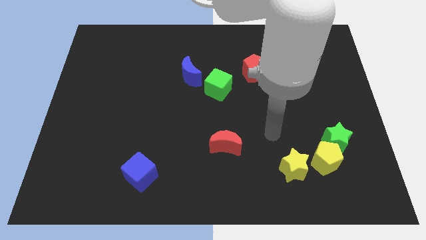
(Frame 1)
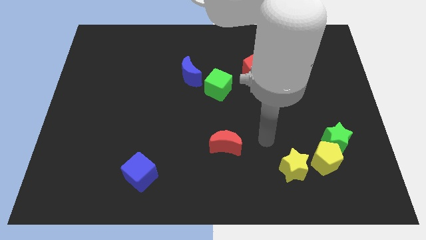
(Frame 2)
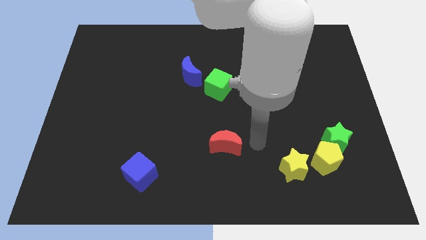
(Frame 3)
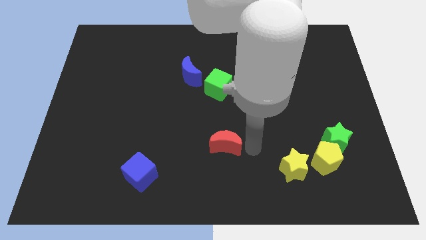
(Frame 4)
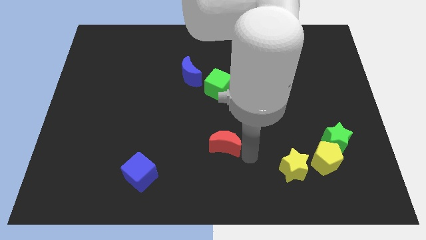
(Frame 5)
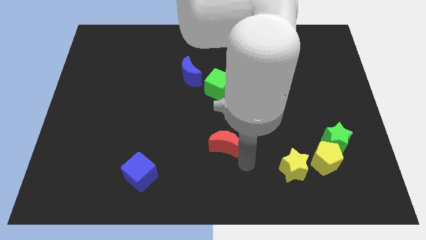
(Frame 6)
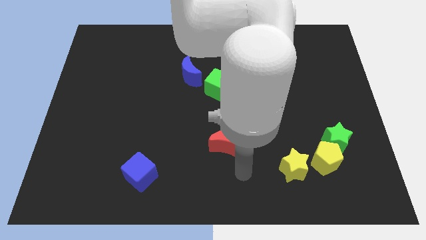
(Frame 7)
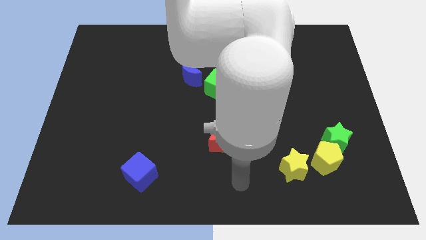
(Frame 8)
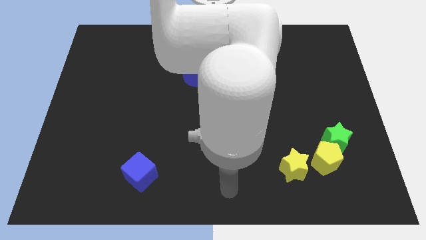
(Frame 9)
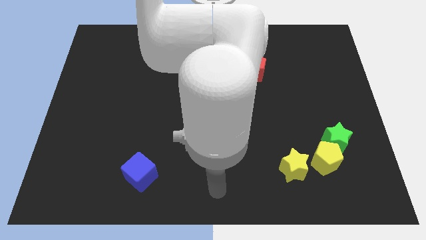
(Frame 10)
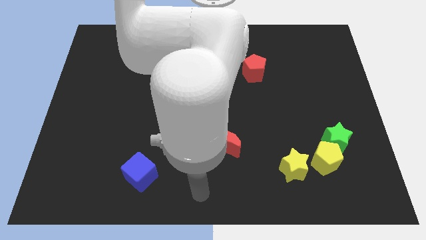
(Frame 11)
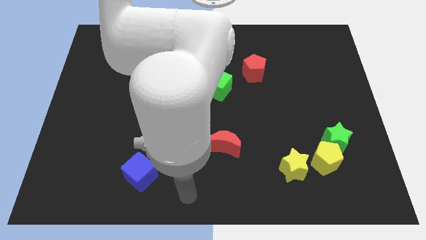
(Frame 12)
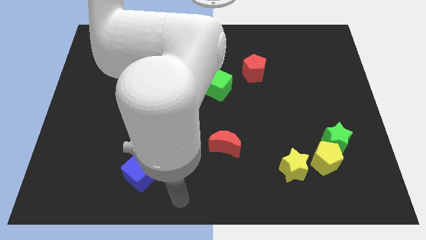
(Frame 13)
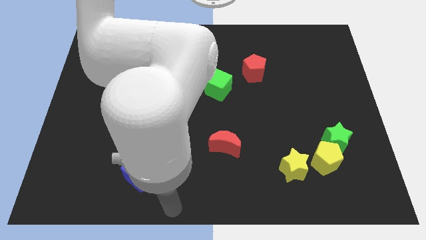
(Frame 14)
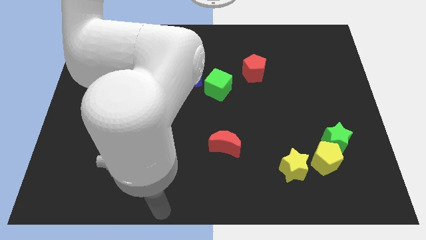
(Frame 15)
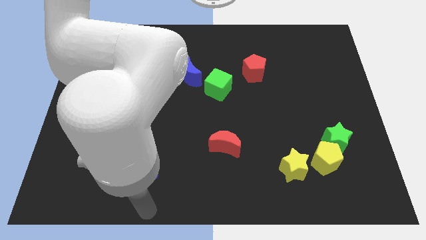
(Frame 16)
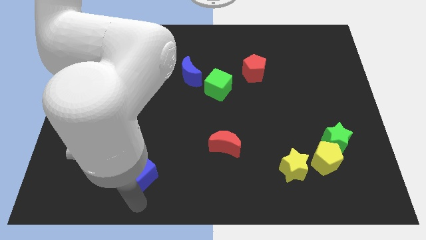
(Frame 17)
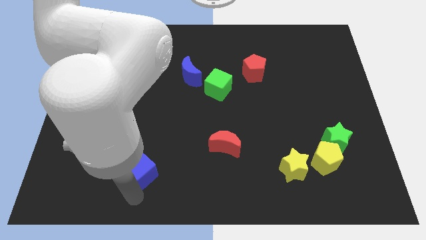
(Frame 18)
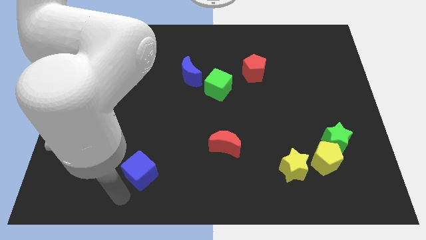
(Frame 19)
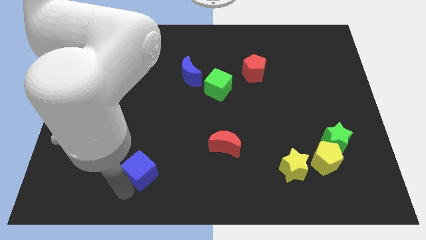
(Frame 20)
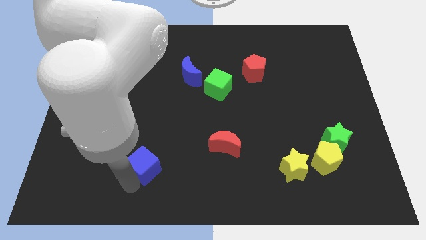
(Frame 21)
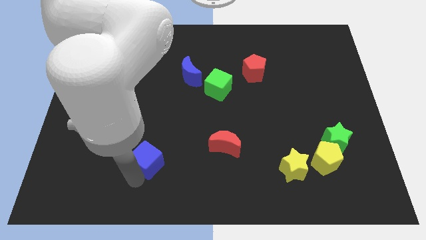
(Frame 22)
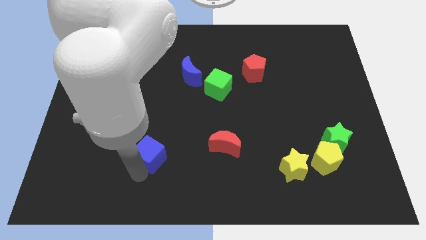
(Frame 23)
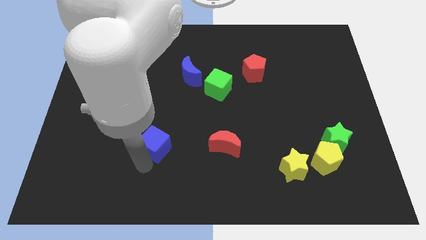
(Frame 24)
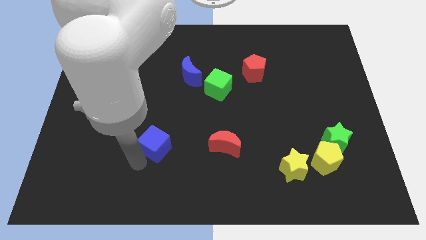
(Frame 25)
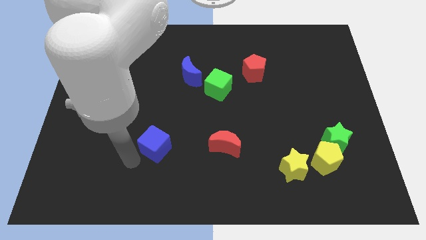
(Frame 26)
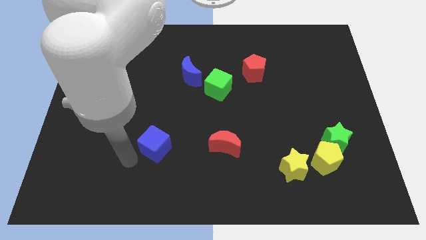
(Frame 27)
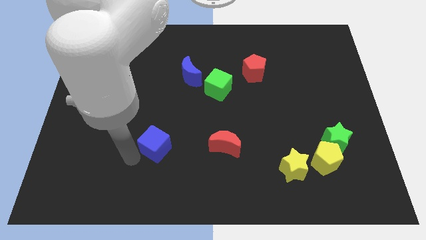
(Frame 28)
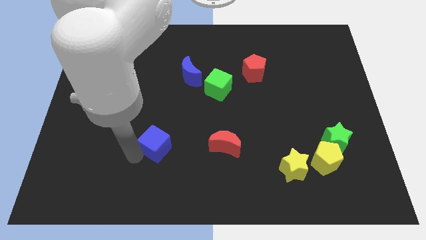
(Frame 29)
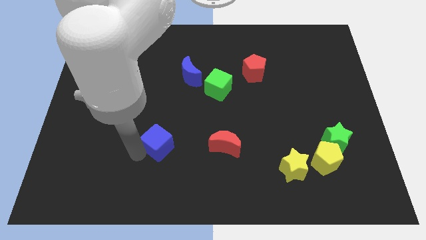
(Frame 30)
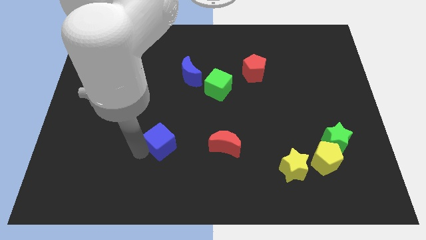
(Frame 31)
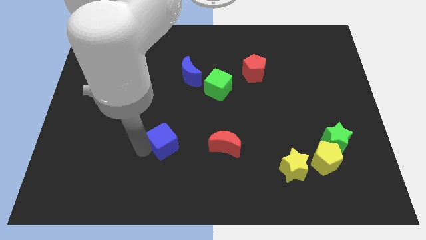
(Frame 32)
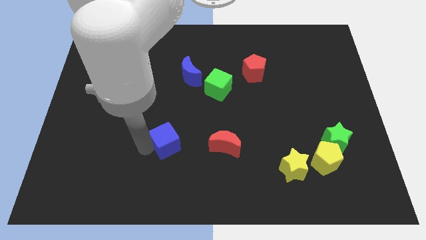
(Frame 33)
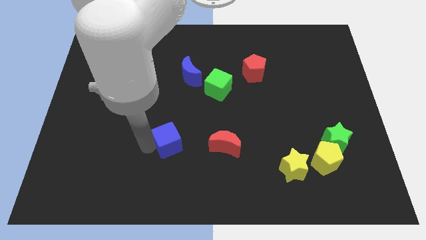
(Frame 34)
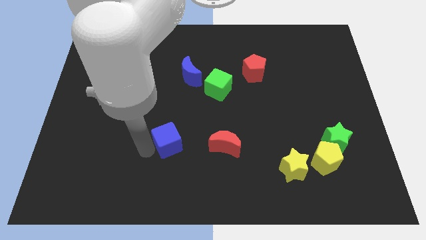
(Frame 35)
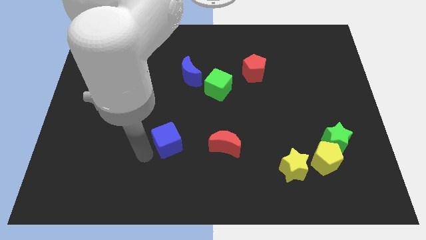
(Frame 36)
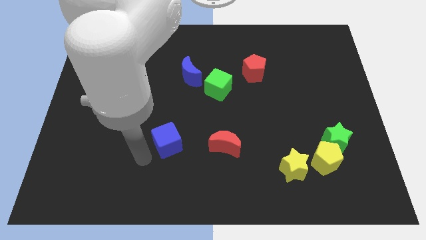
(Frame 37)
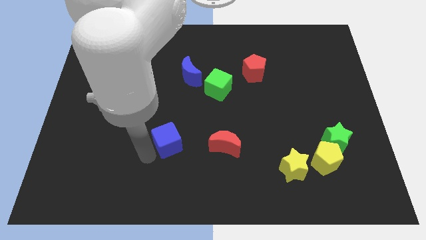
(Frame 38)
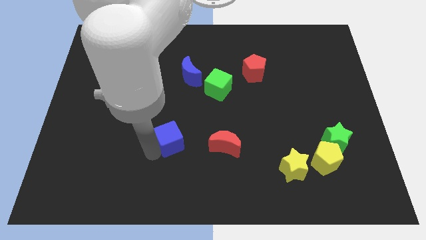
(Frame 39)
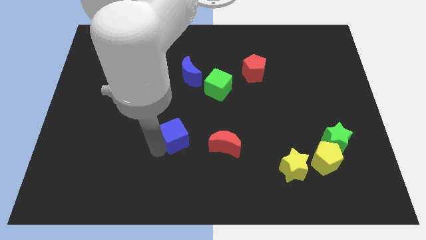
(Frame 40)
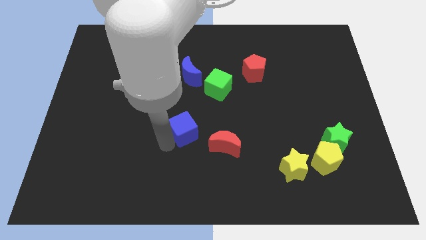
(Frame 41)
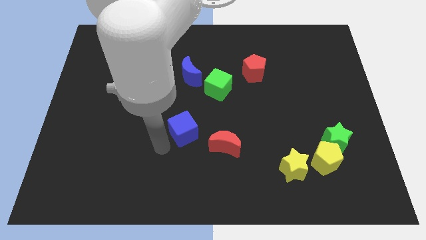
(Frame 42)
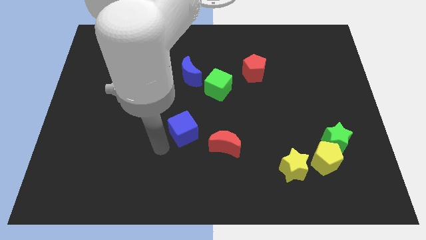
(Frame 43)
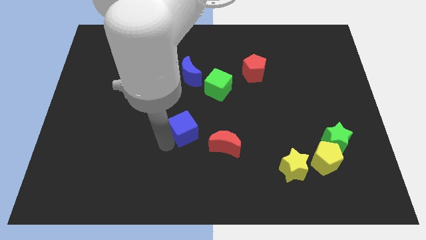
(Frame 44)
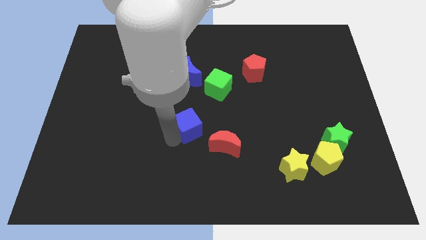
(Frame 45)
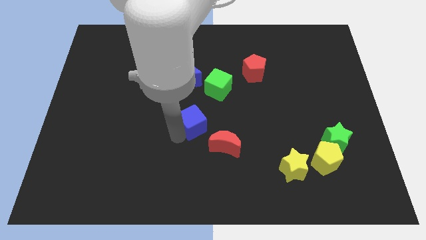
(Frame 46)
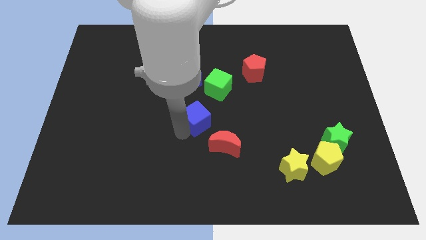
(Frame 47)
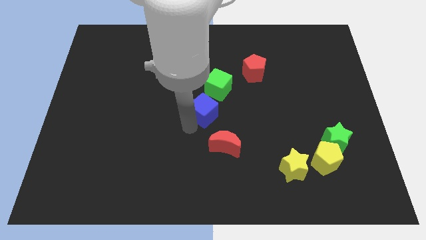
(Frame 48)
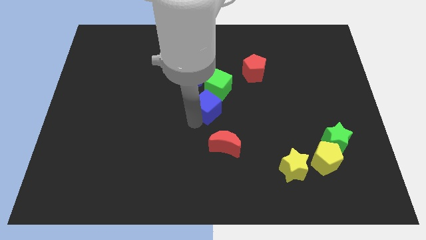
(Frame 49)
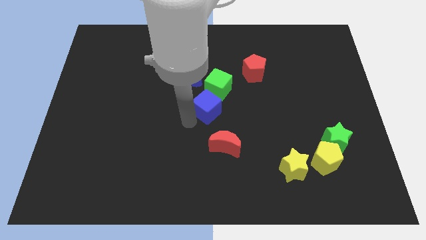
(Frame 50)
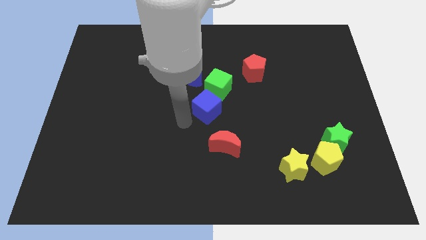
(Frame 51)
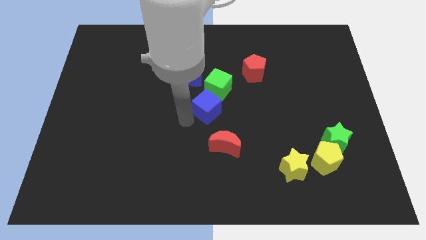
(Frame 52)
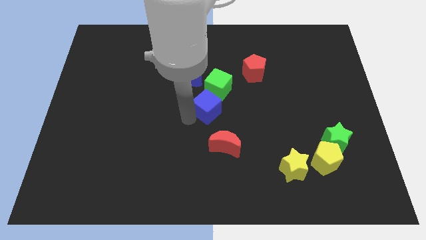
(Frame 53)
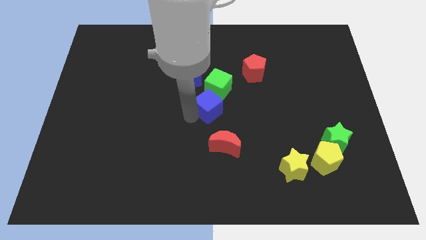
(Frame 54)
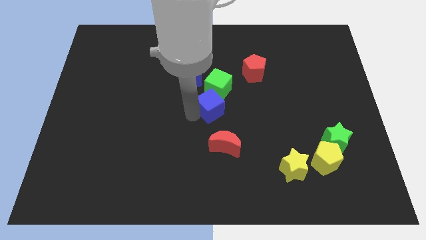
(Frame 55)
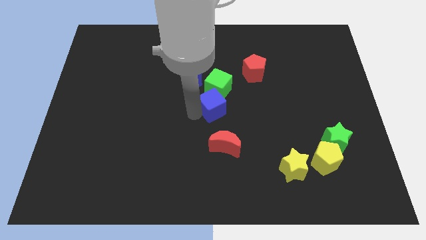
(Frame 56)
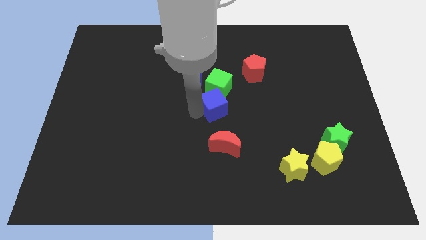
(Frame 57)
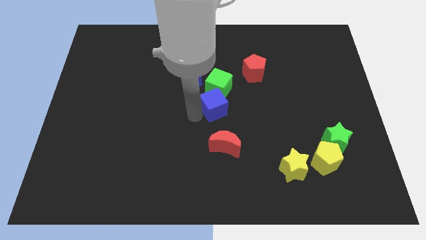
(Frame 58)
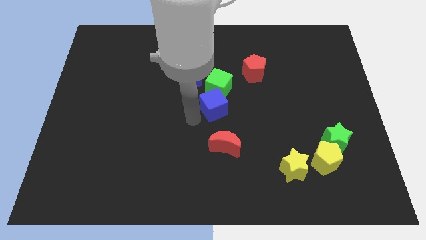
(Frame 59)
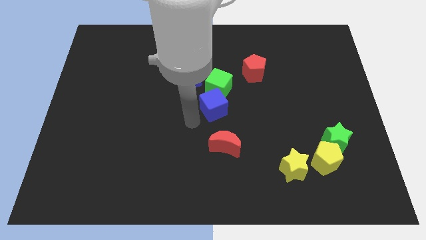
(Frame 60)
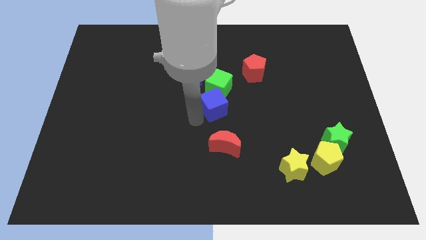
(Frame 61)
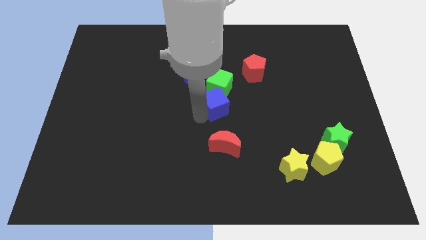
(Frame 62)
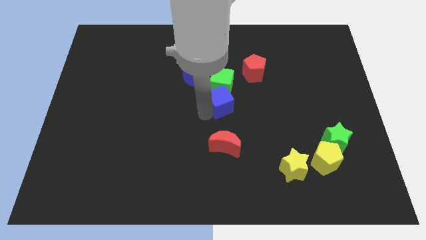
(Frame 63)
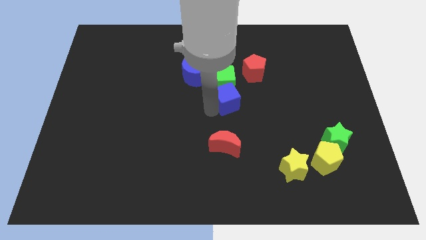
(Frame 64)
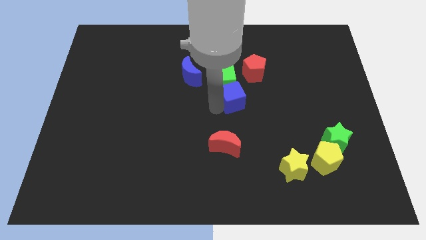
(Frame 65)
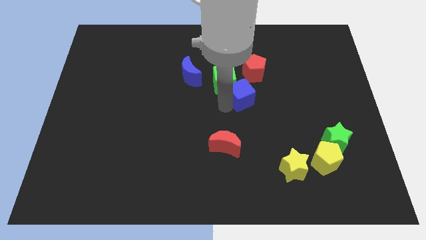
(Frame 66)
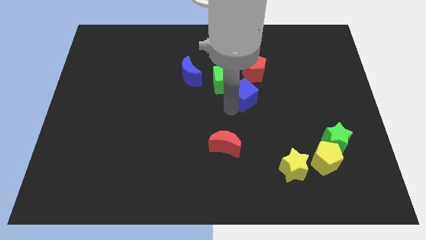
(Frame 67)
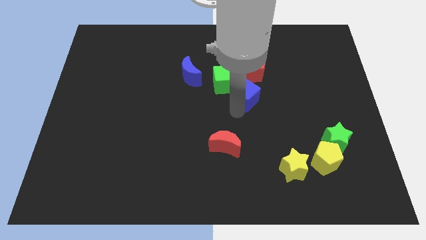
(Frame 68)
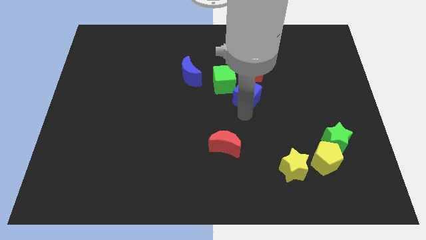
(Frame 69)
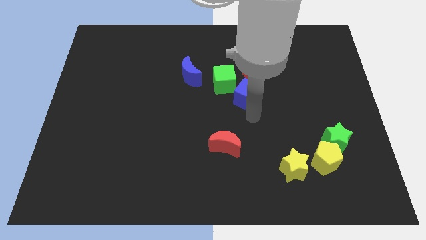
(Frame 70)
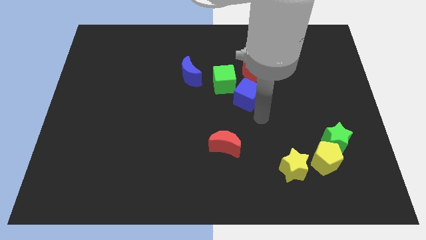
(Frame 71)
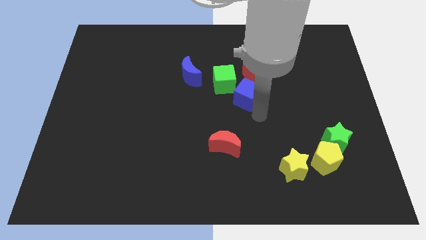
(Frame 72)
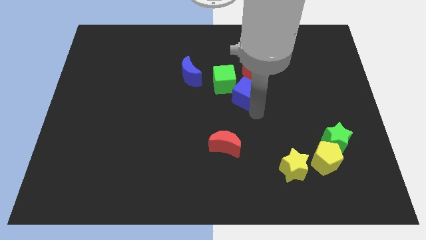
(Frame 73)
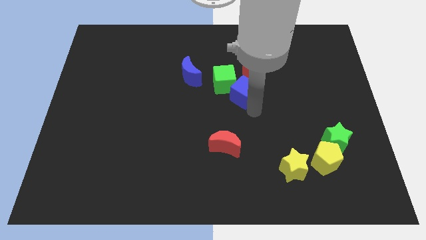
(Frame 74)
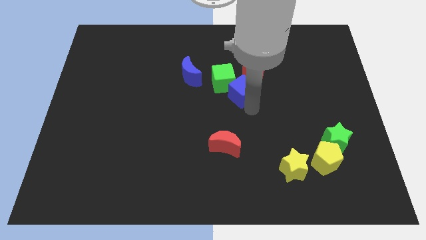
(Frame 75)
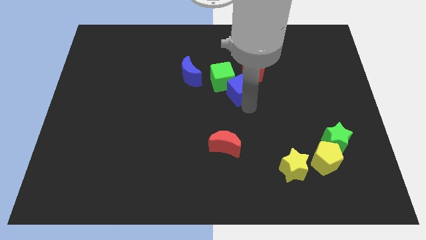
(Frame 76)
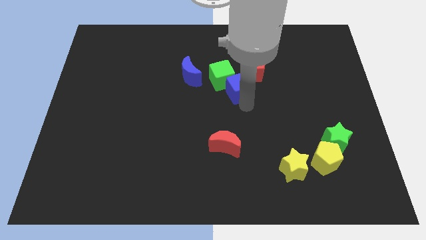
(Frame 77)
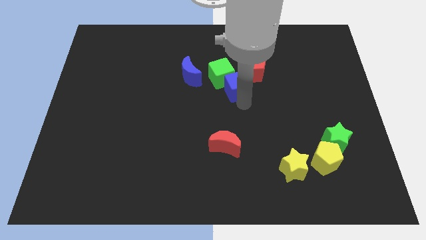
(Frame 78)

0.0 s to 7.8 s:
put the blue cube right of the blue moon
